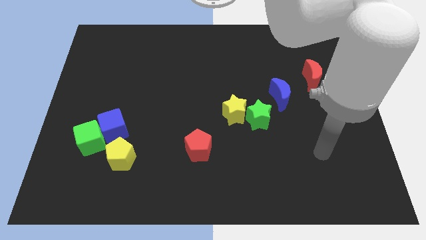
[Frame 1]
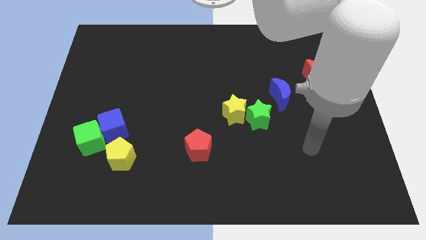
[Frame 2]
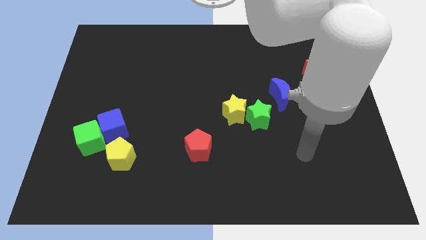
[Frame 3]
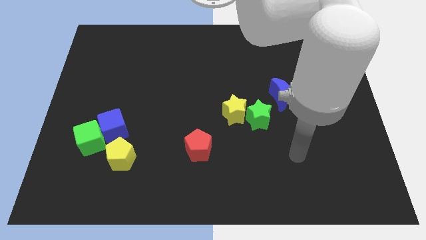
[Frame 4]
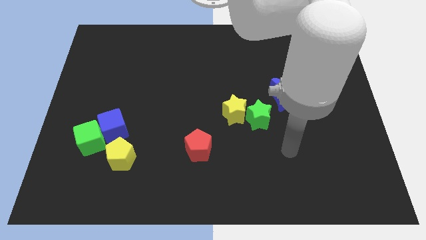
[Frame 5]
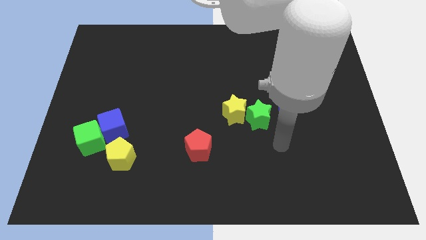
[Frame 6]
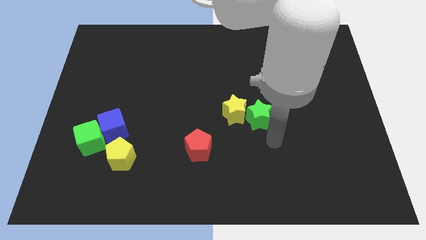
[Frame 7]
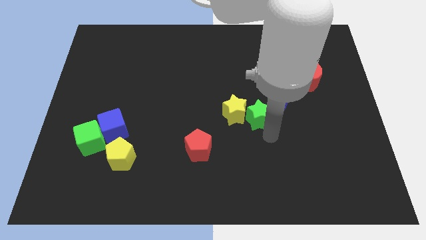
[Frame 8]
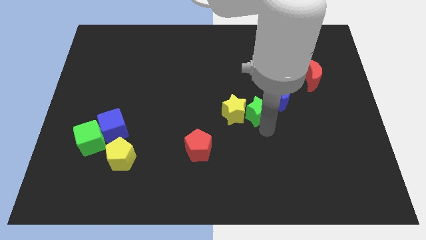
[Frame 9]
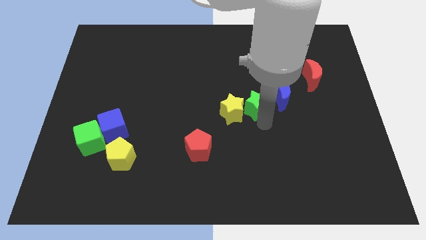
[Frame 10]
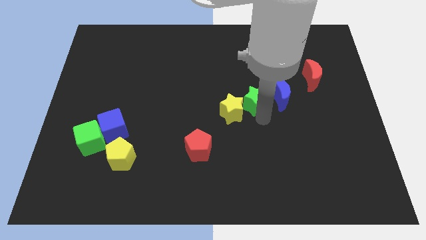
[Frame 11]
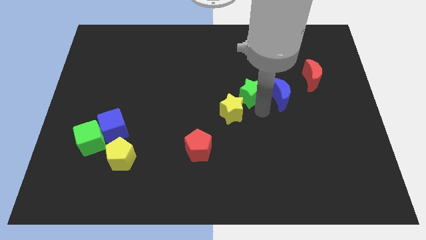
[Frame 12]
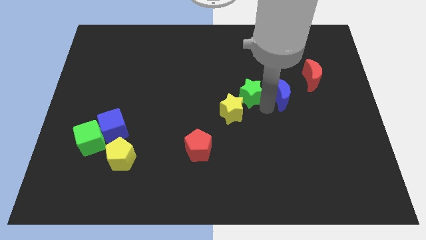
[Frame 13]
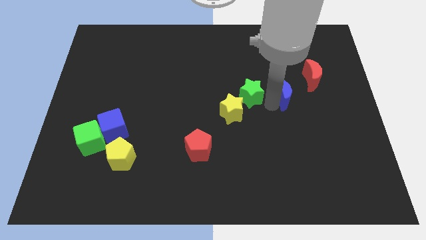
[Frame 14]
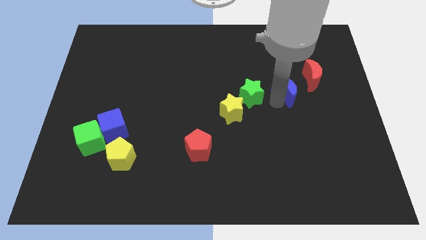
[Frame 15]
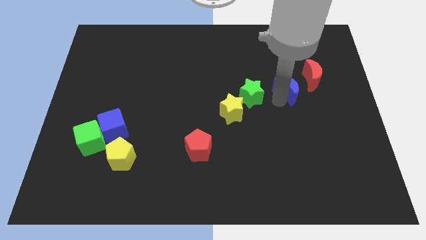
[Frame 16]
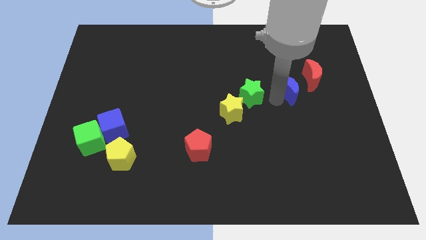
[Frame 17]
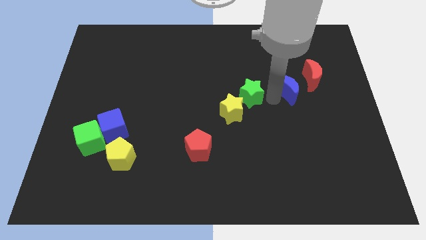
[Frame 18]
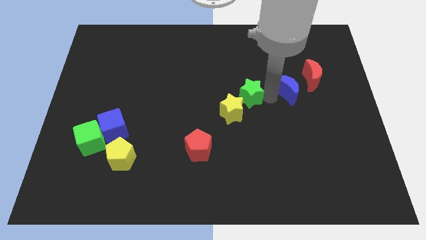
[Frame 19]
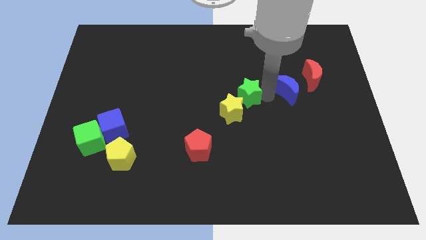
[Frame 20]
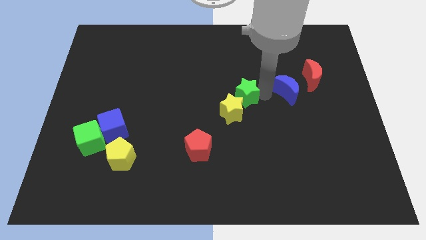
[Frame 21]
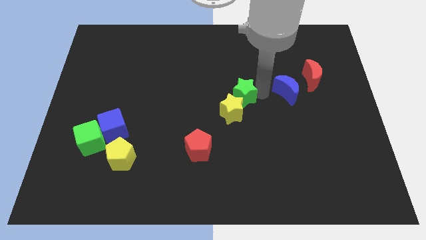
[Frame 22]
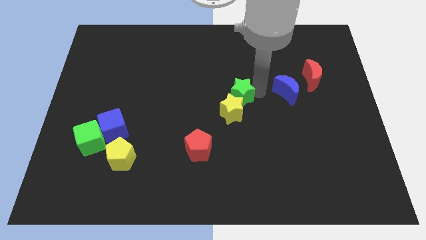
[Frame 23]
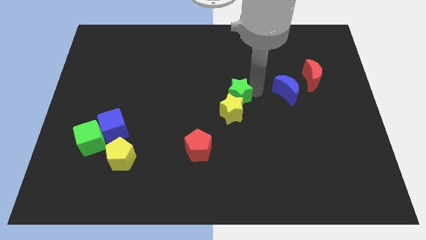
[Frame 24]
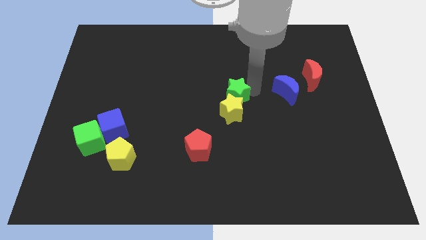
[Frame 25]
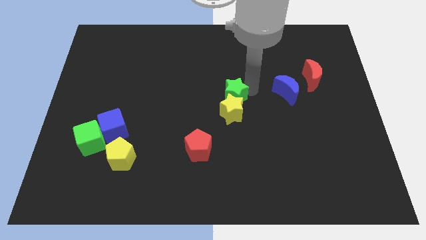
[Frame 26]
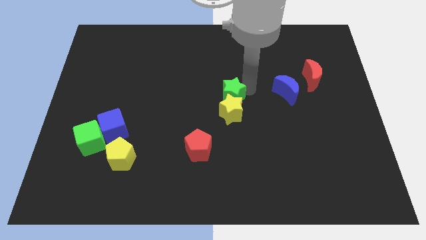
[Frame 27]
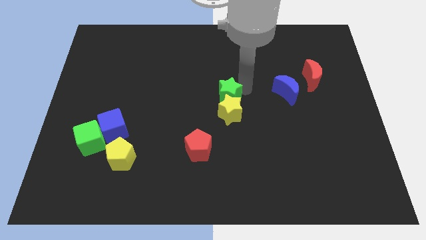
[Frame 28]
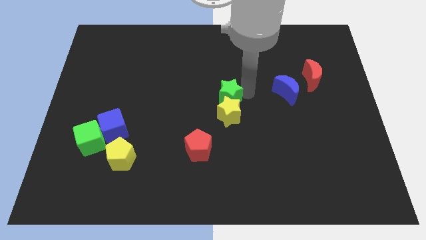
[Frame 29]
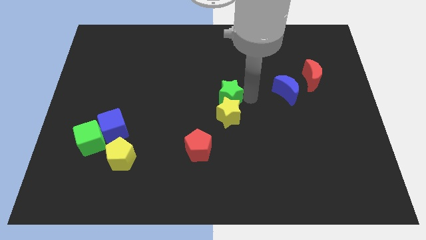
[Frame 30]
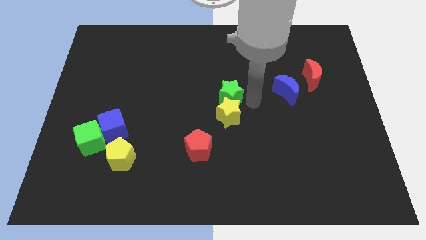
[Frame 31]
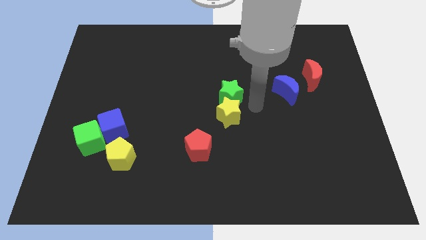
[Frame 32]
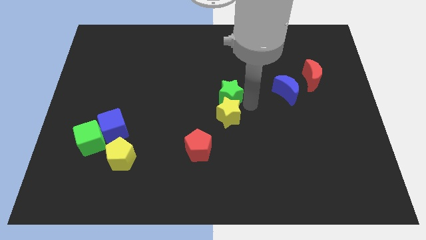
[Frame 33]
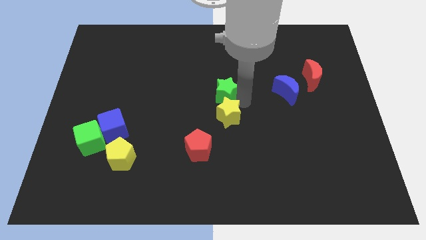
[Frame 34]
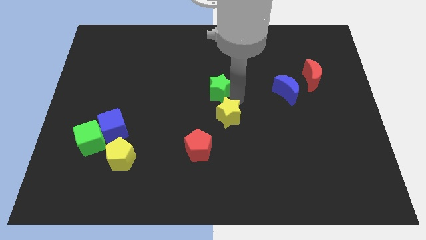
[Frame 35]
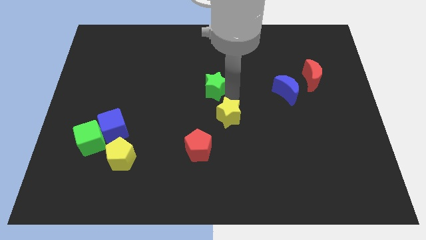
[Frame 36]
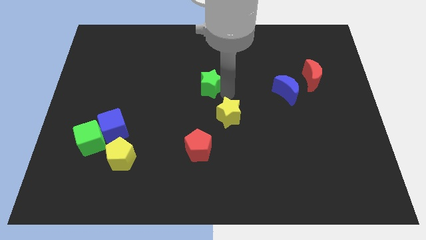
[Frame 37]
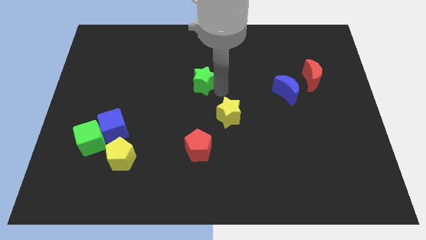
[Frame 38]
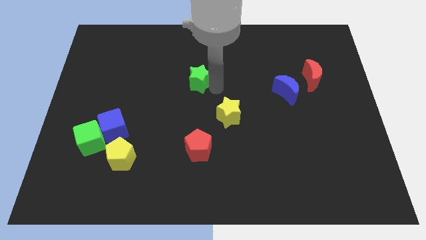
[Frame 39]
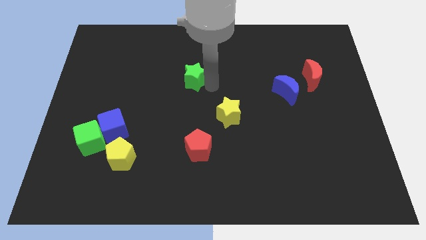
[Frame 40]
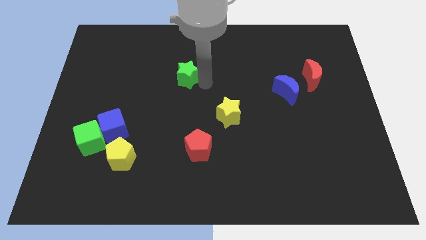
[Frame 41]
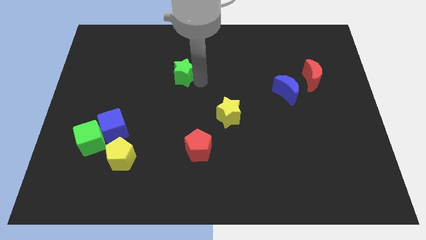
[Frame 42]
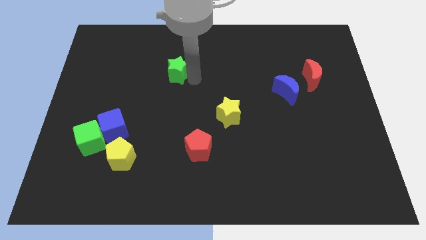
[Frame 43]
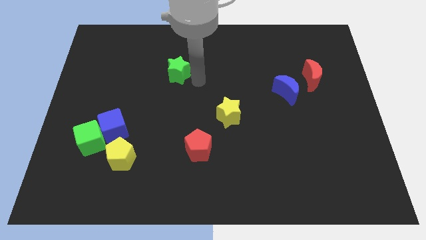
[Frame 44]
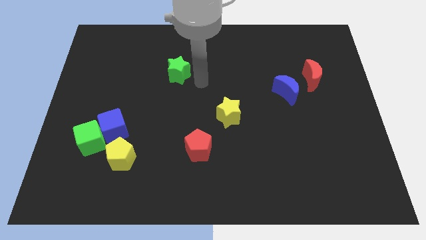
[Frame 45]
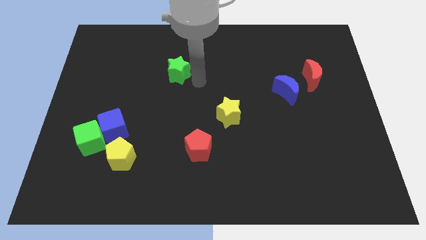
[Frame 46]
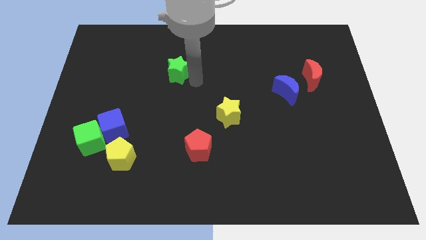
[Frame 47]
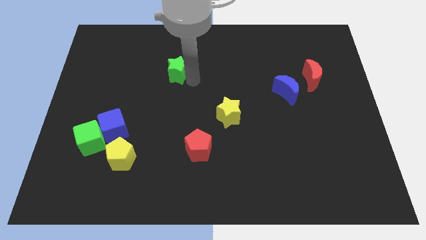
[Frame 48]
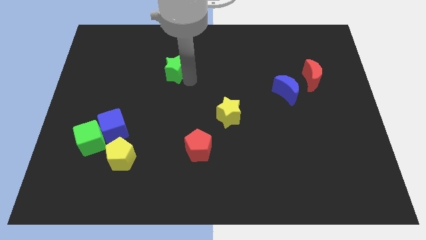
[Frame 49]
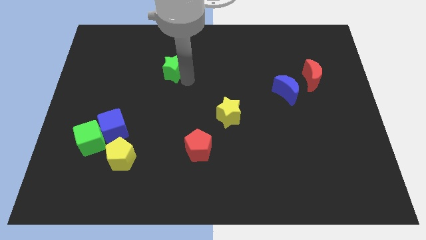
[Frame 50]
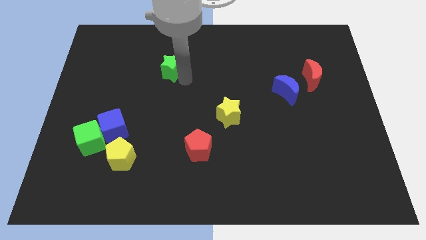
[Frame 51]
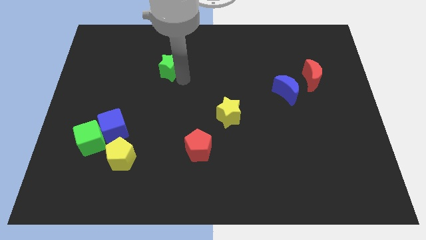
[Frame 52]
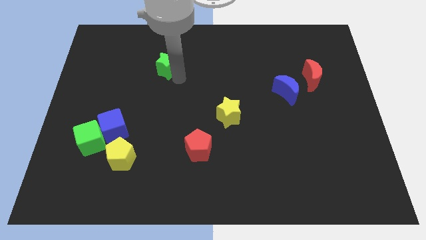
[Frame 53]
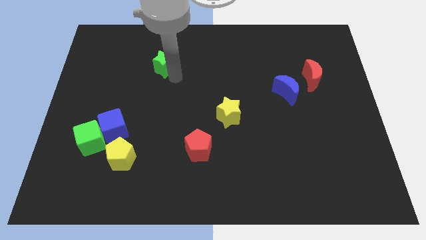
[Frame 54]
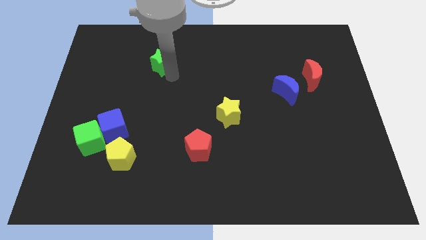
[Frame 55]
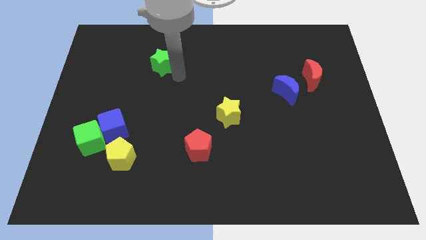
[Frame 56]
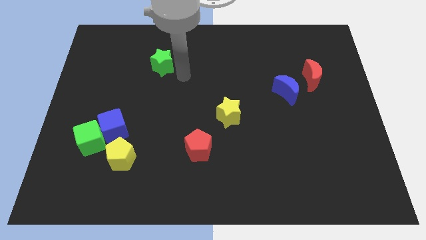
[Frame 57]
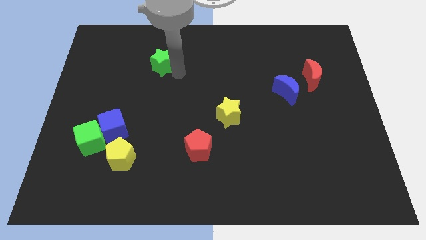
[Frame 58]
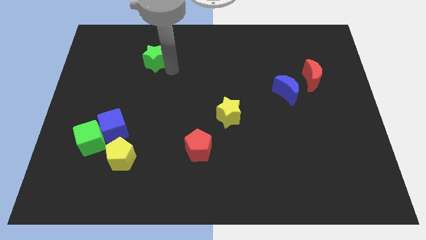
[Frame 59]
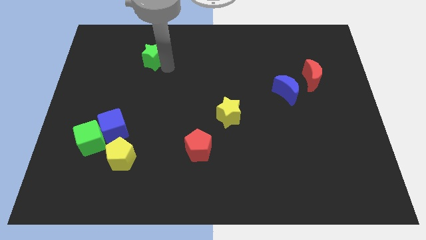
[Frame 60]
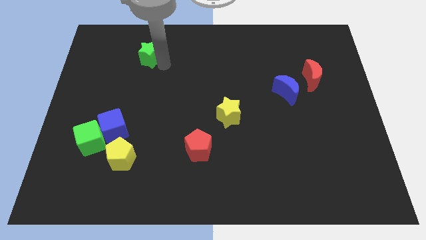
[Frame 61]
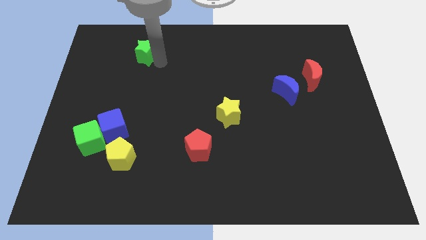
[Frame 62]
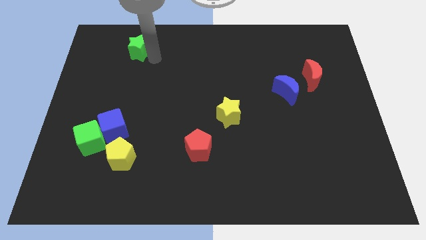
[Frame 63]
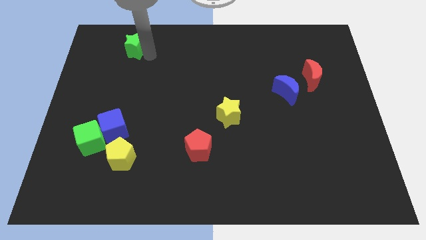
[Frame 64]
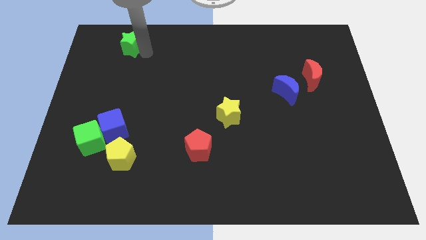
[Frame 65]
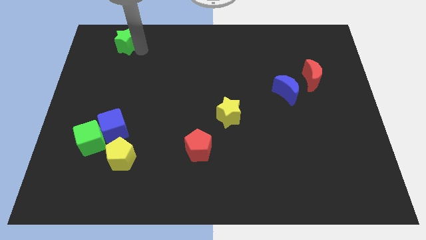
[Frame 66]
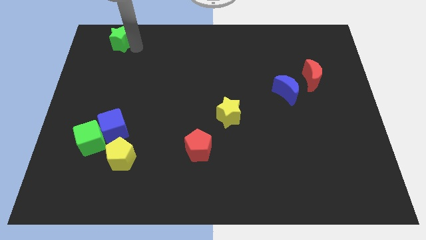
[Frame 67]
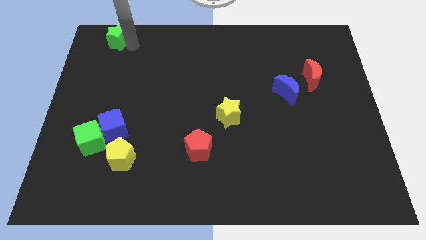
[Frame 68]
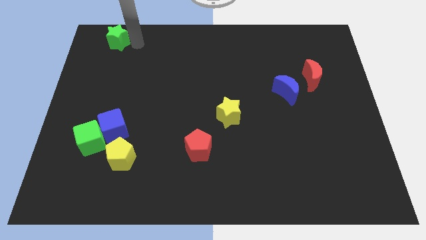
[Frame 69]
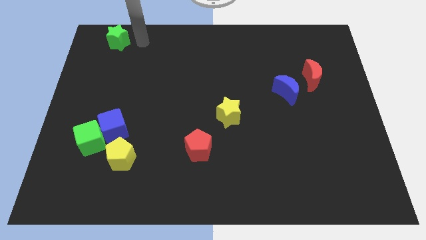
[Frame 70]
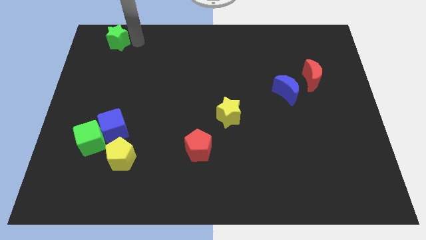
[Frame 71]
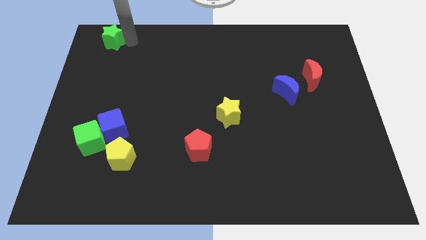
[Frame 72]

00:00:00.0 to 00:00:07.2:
push the green star to the top left corner
